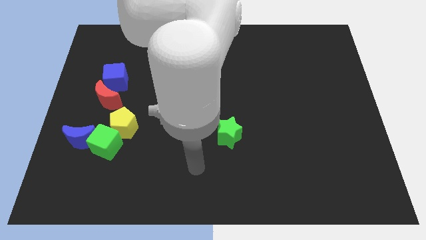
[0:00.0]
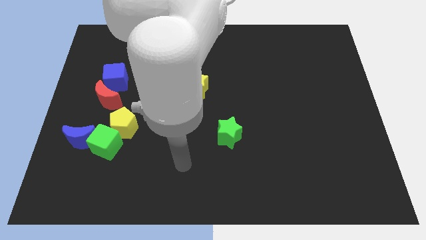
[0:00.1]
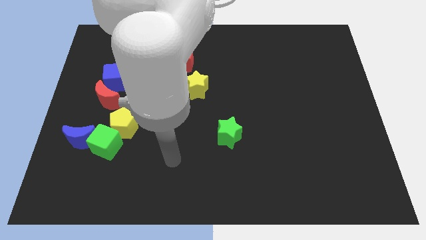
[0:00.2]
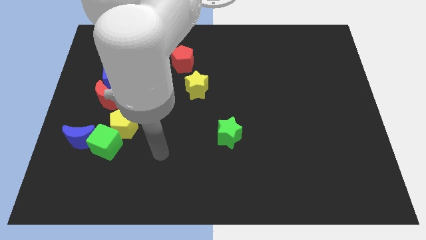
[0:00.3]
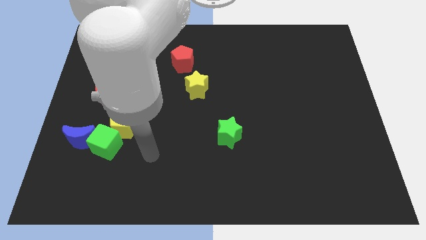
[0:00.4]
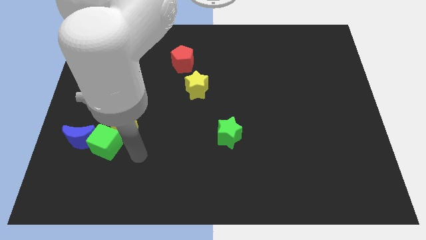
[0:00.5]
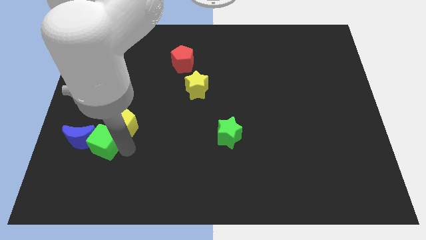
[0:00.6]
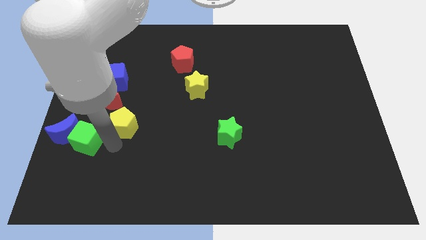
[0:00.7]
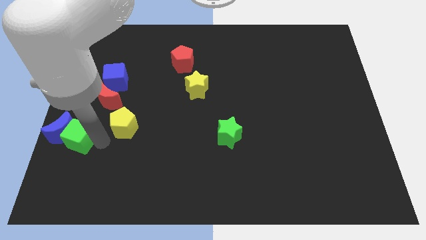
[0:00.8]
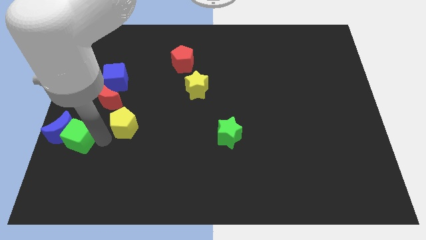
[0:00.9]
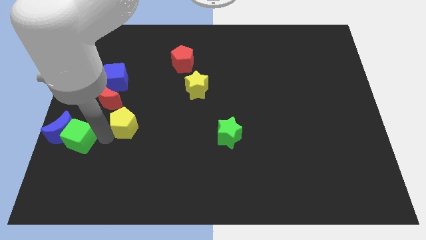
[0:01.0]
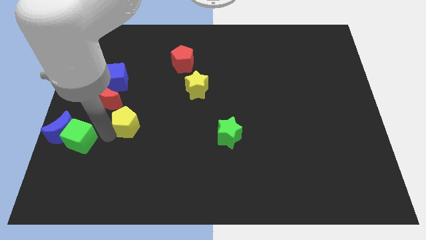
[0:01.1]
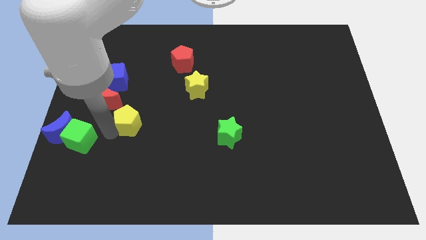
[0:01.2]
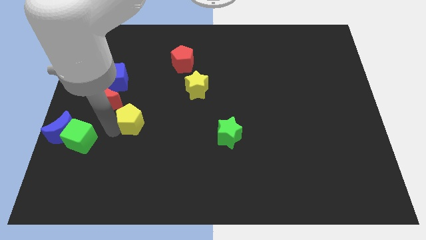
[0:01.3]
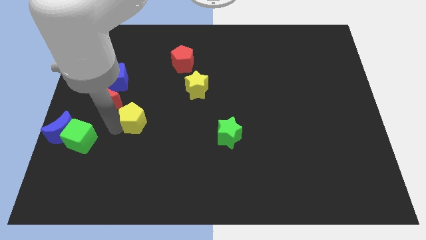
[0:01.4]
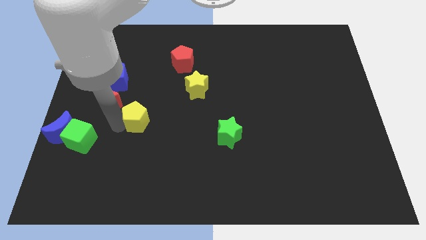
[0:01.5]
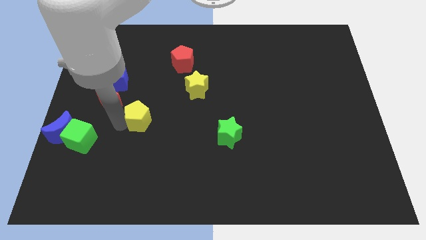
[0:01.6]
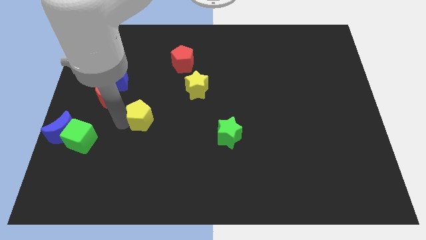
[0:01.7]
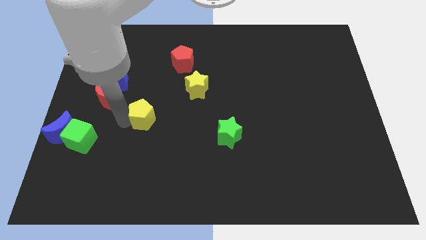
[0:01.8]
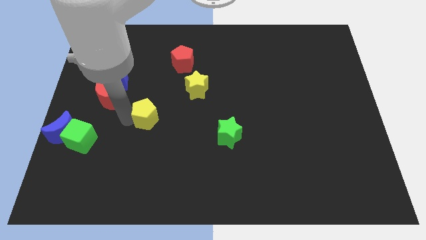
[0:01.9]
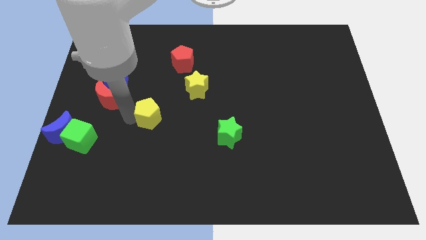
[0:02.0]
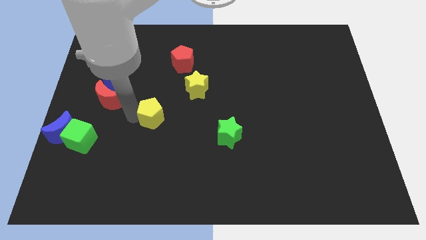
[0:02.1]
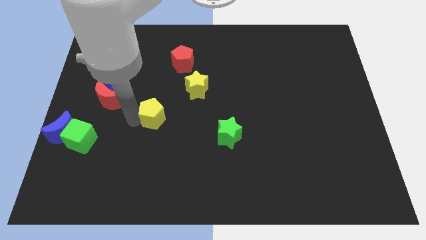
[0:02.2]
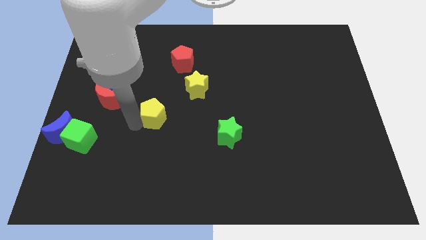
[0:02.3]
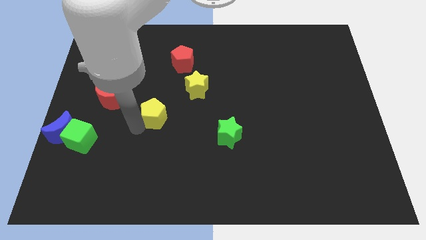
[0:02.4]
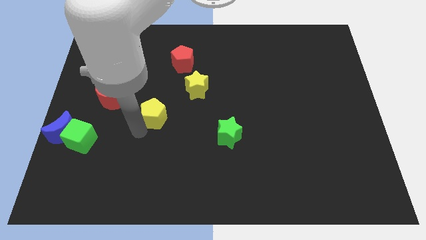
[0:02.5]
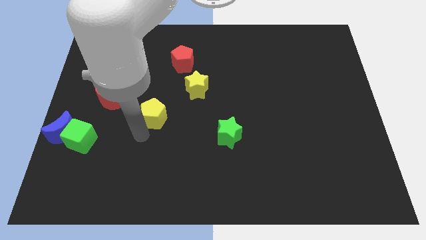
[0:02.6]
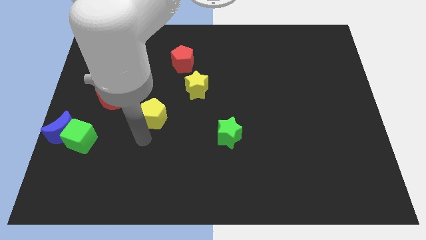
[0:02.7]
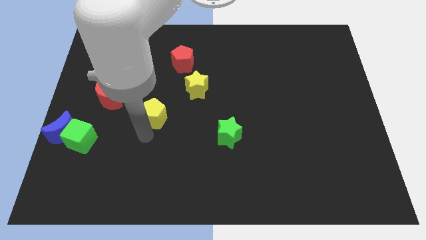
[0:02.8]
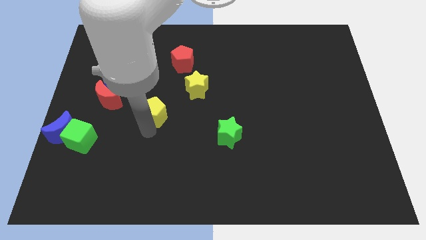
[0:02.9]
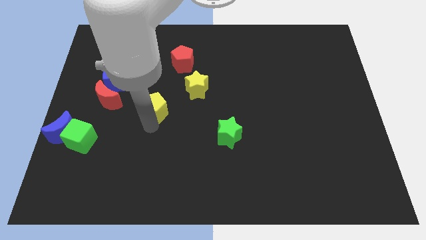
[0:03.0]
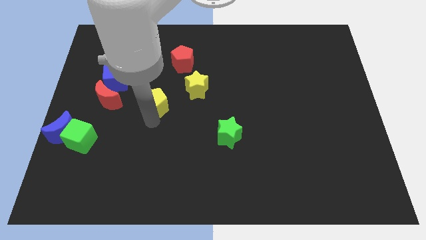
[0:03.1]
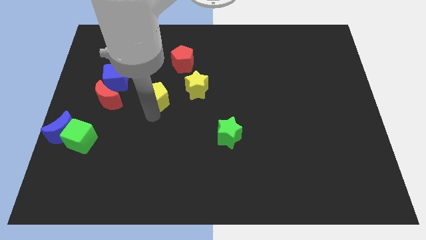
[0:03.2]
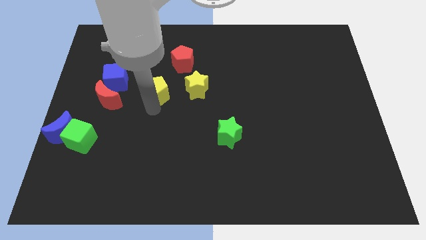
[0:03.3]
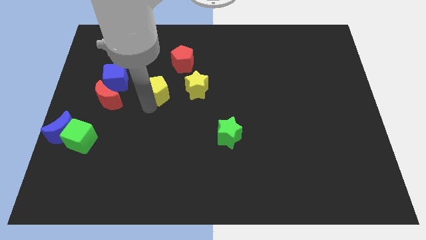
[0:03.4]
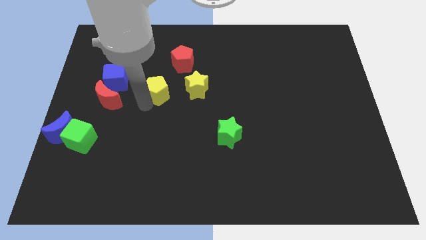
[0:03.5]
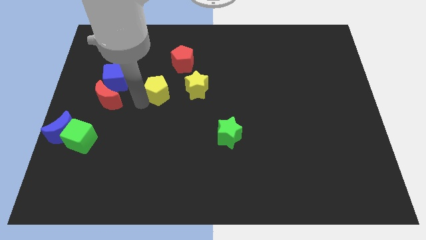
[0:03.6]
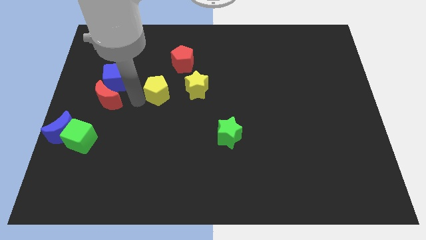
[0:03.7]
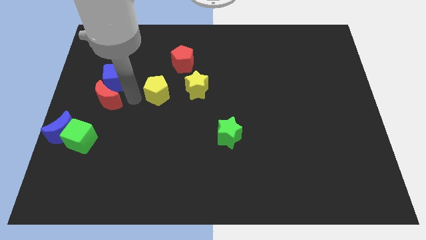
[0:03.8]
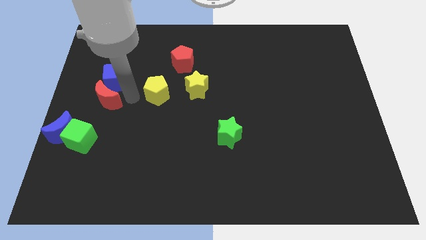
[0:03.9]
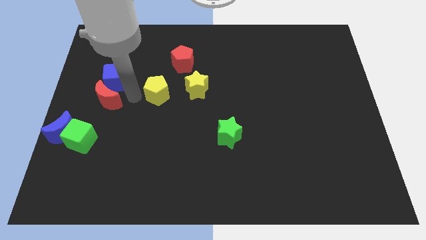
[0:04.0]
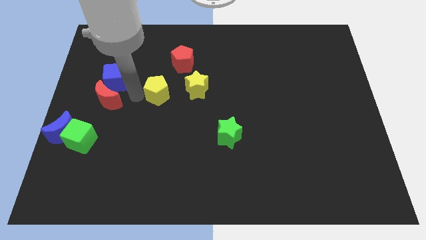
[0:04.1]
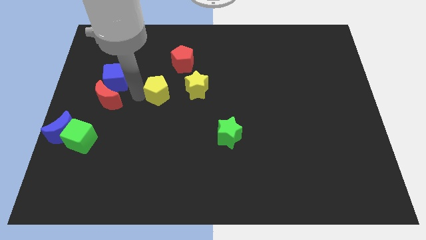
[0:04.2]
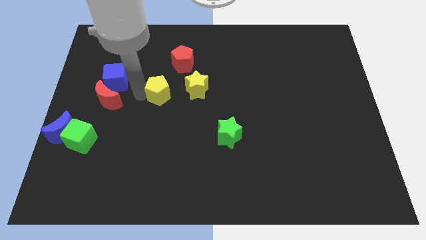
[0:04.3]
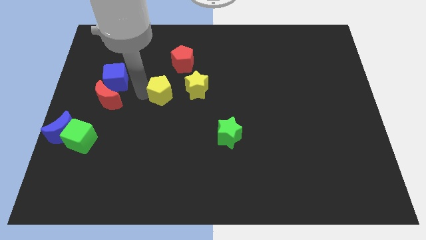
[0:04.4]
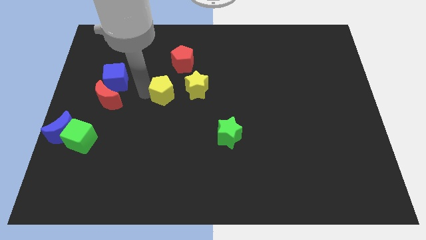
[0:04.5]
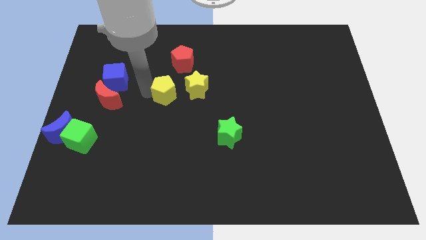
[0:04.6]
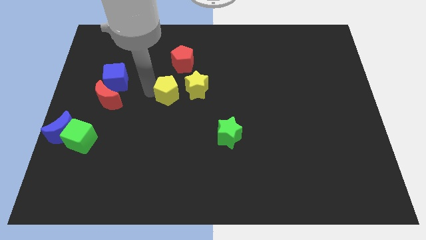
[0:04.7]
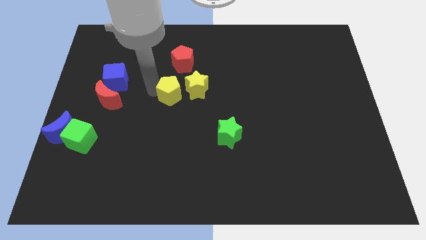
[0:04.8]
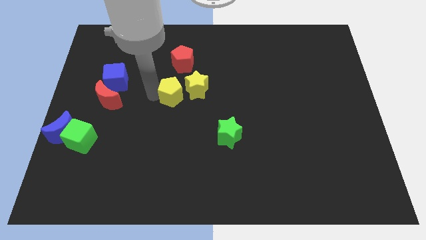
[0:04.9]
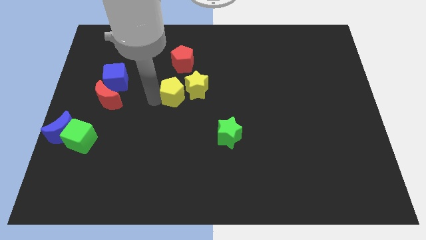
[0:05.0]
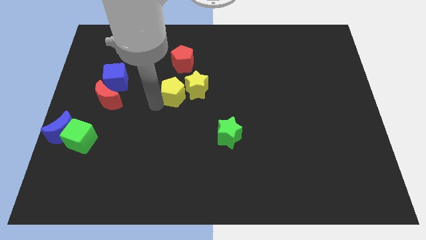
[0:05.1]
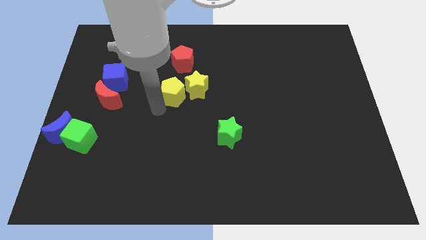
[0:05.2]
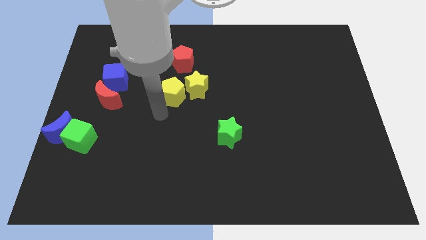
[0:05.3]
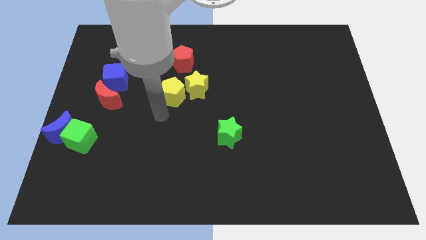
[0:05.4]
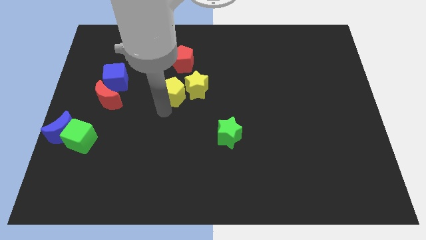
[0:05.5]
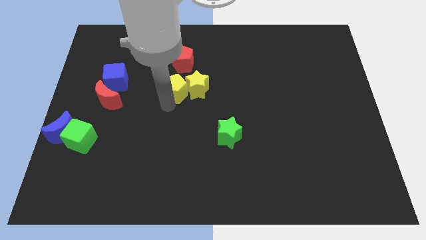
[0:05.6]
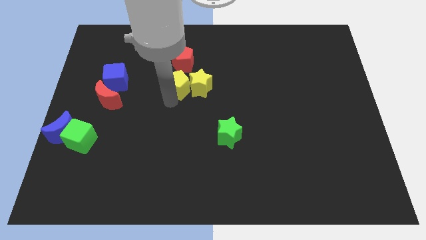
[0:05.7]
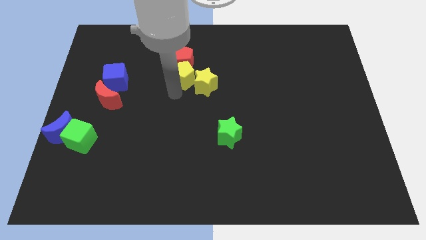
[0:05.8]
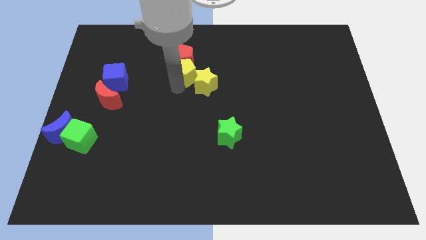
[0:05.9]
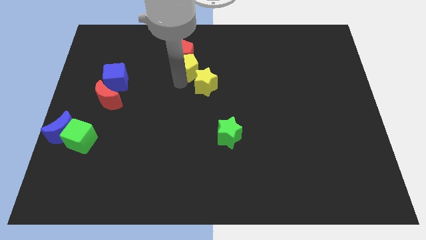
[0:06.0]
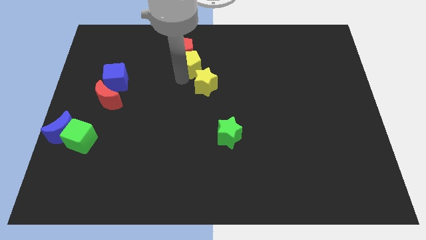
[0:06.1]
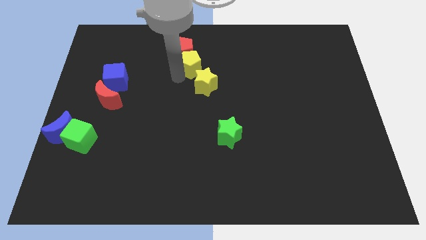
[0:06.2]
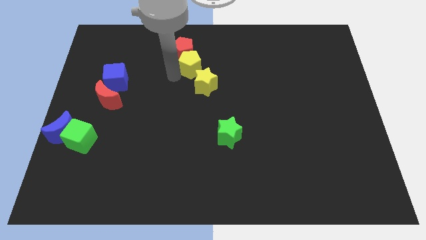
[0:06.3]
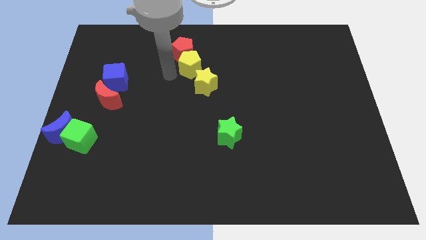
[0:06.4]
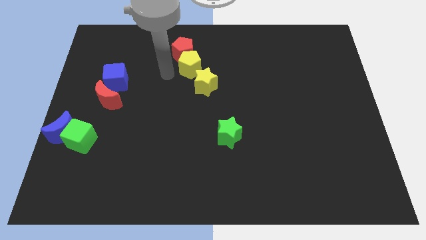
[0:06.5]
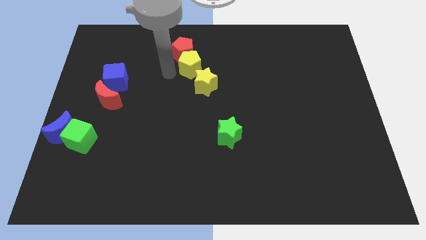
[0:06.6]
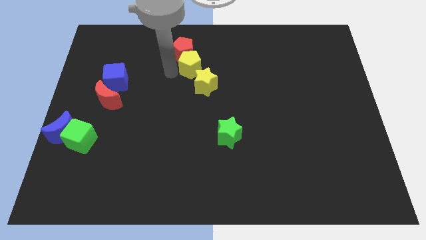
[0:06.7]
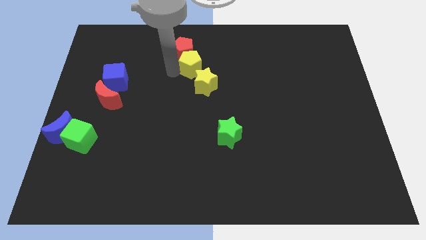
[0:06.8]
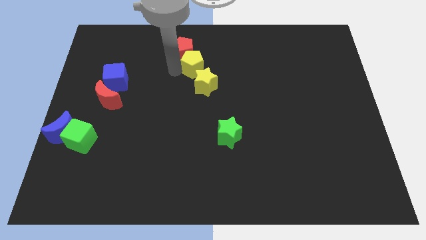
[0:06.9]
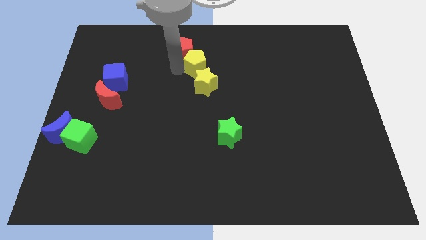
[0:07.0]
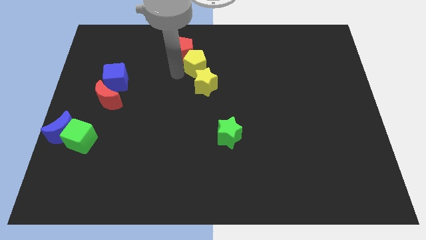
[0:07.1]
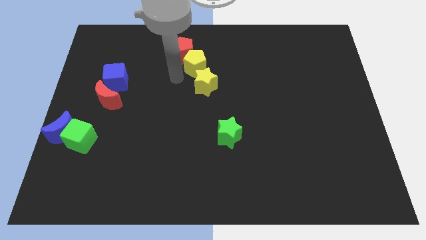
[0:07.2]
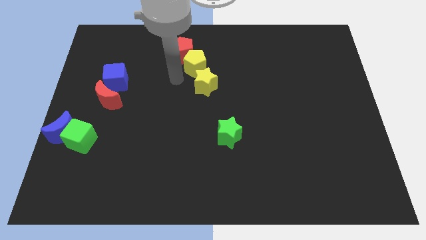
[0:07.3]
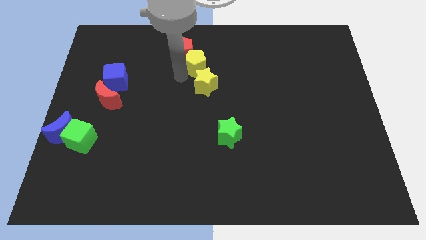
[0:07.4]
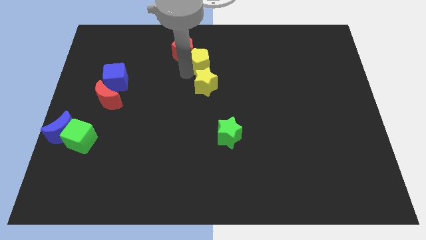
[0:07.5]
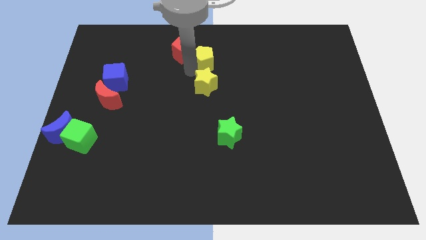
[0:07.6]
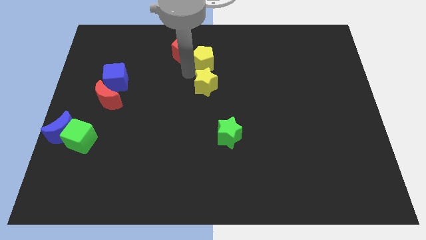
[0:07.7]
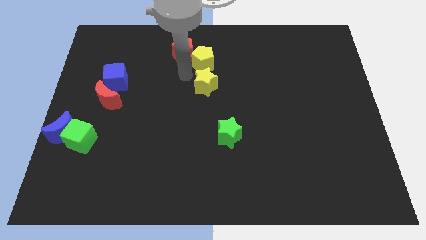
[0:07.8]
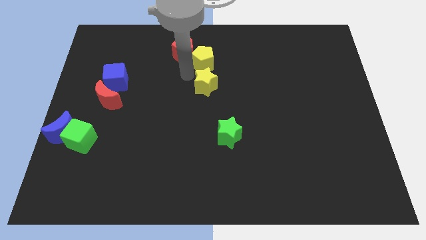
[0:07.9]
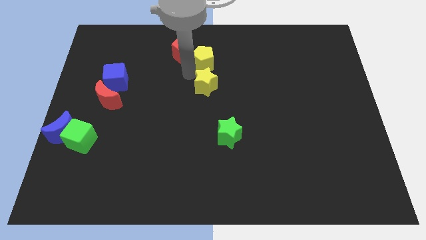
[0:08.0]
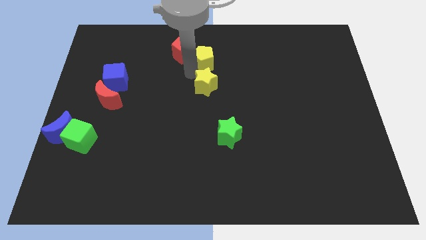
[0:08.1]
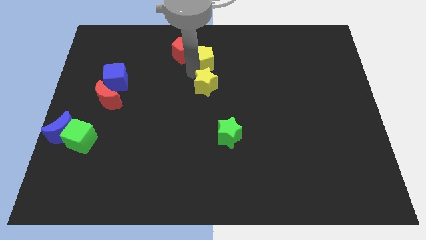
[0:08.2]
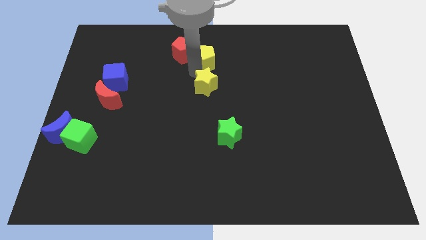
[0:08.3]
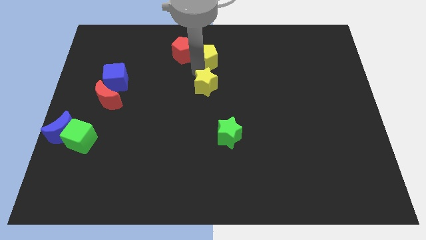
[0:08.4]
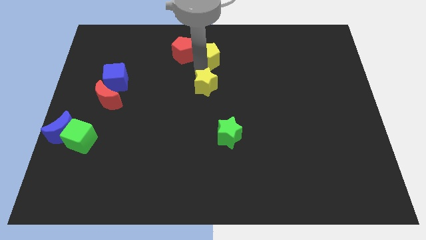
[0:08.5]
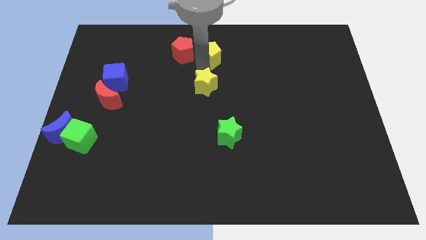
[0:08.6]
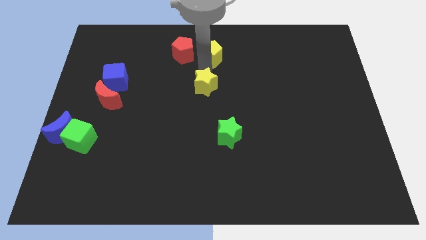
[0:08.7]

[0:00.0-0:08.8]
move the yellow pentagon to the top
